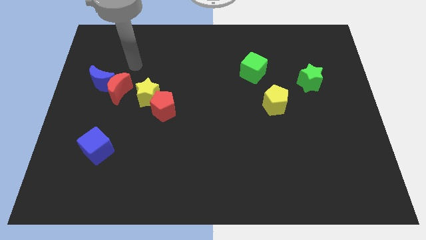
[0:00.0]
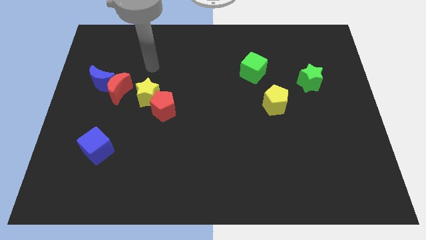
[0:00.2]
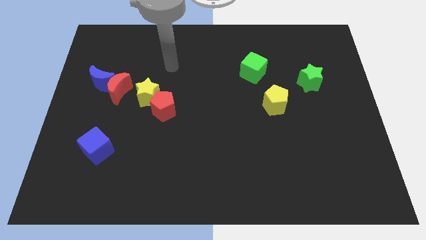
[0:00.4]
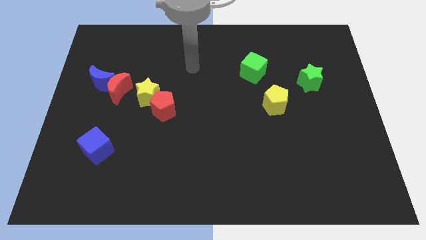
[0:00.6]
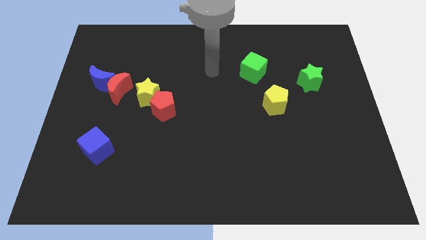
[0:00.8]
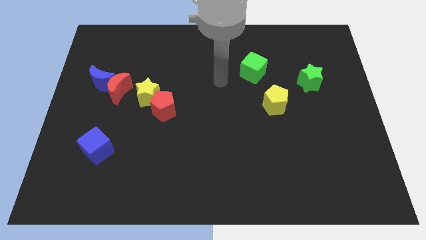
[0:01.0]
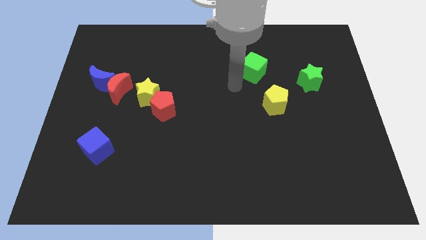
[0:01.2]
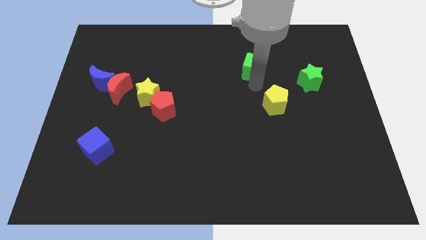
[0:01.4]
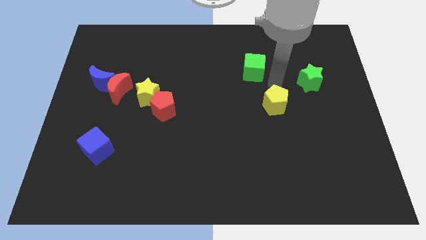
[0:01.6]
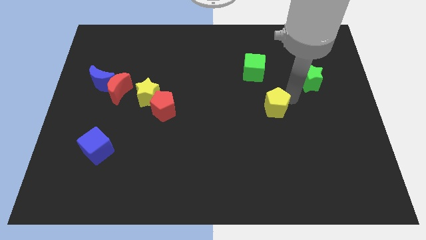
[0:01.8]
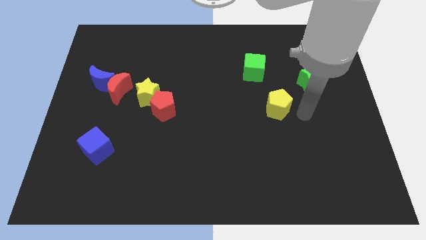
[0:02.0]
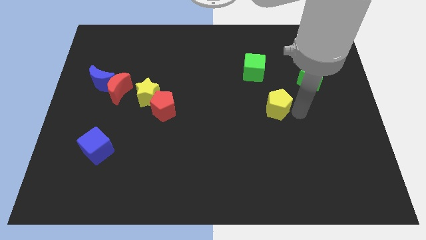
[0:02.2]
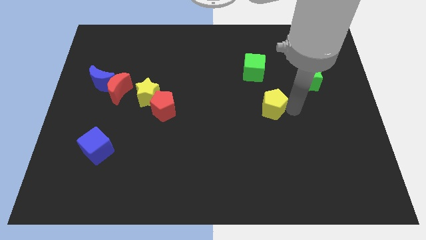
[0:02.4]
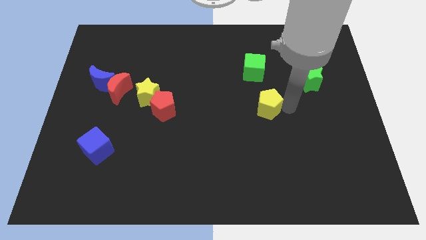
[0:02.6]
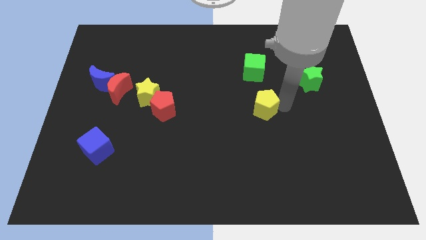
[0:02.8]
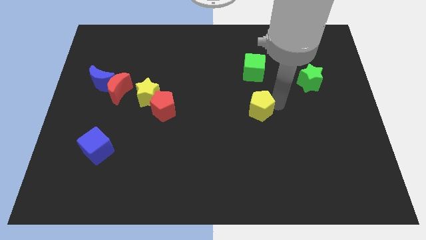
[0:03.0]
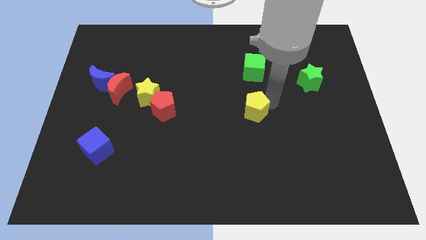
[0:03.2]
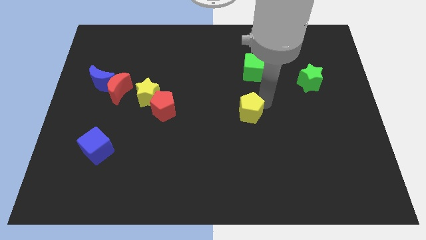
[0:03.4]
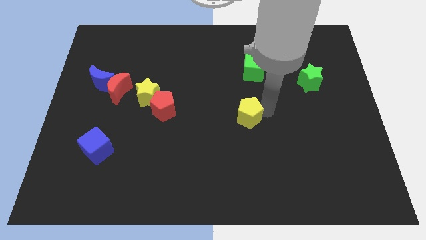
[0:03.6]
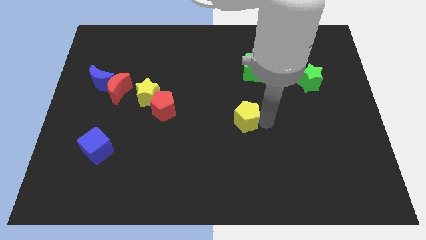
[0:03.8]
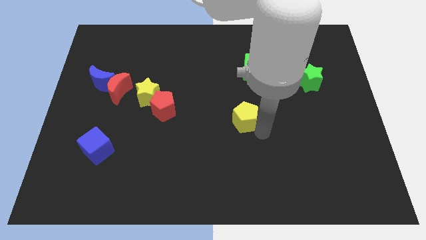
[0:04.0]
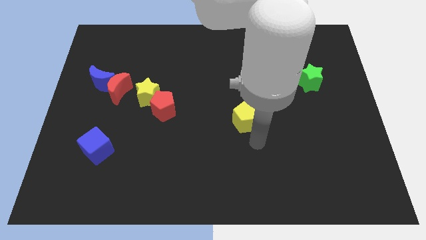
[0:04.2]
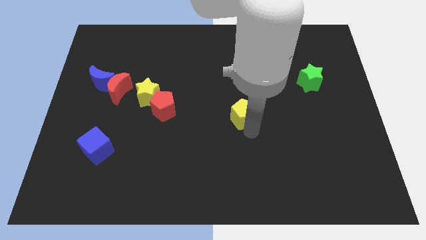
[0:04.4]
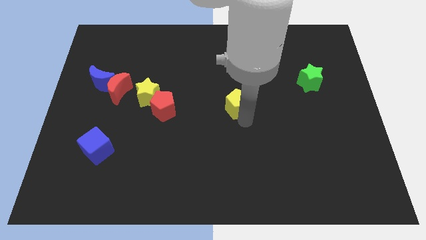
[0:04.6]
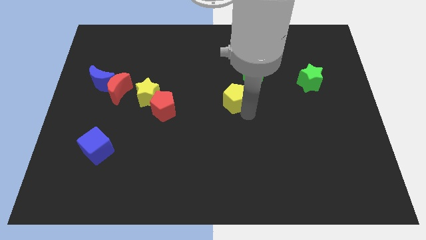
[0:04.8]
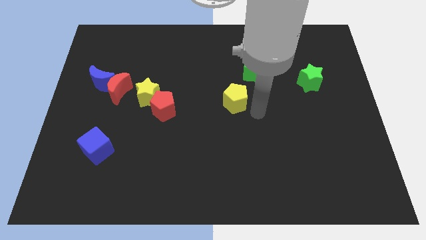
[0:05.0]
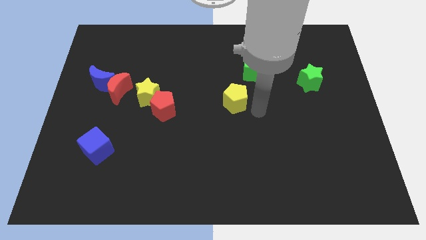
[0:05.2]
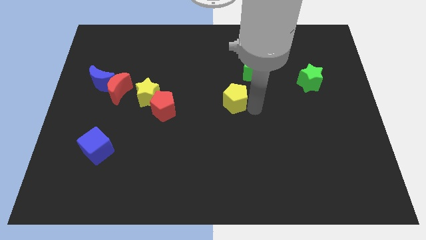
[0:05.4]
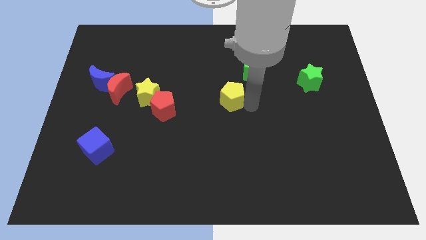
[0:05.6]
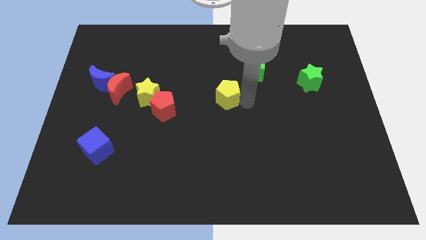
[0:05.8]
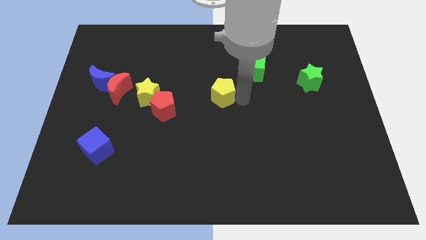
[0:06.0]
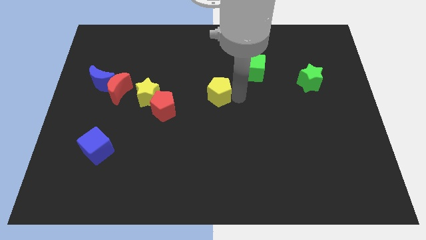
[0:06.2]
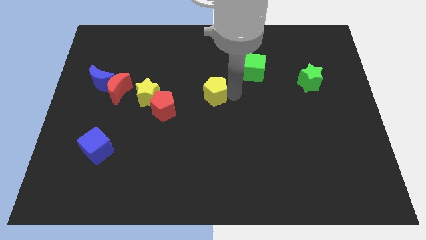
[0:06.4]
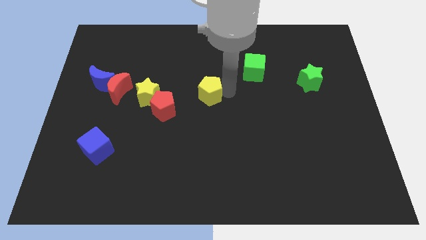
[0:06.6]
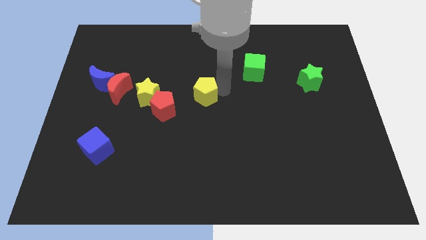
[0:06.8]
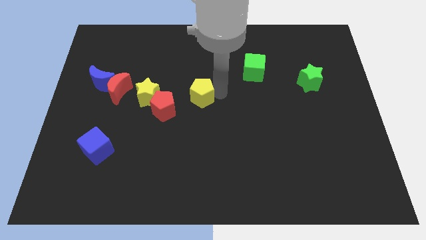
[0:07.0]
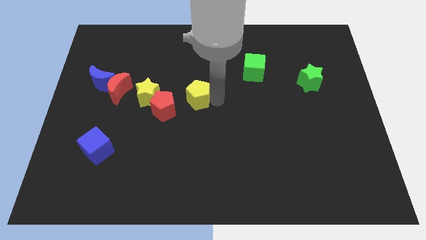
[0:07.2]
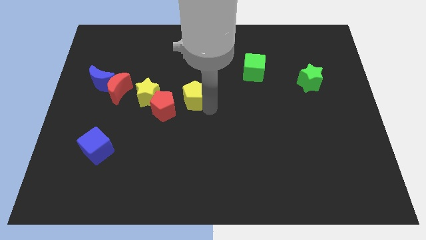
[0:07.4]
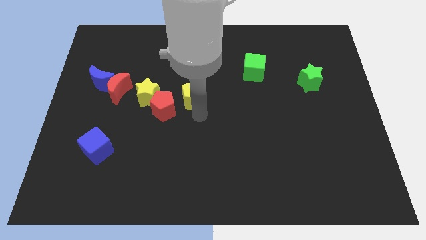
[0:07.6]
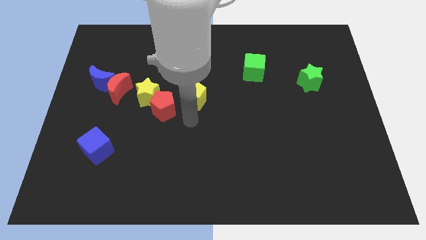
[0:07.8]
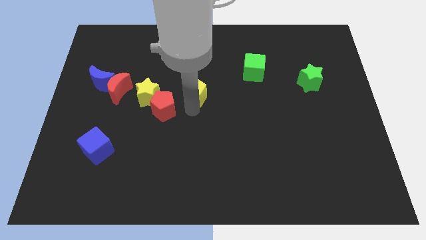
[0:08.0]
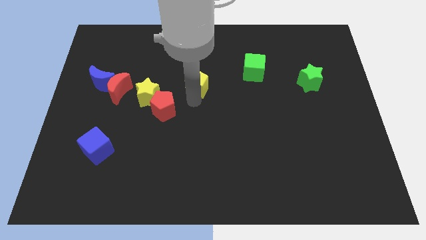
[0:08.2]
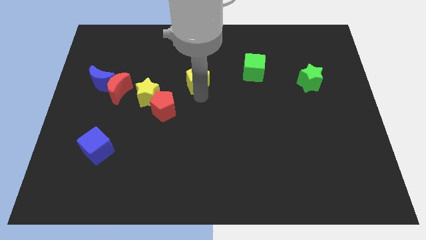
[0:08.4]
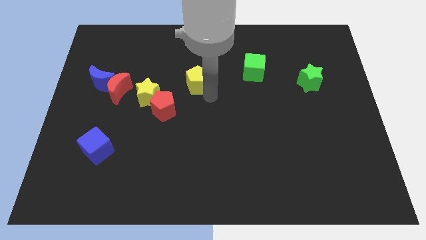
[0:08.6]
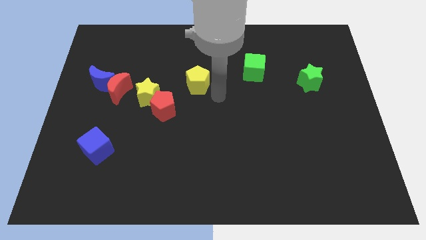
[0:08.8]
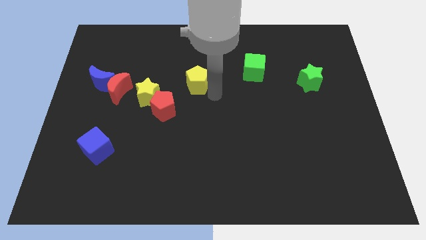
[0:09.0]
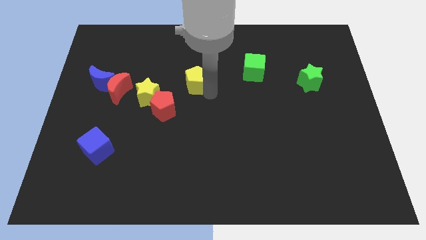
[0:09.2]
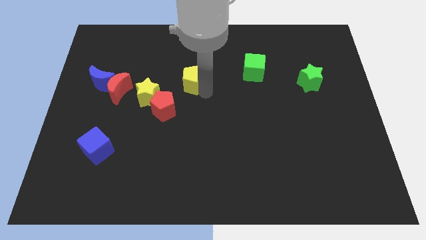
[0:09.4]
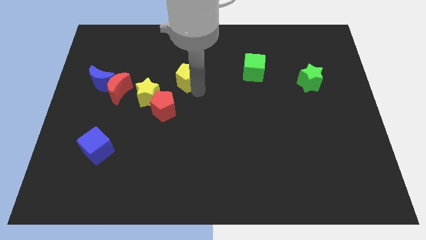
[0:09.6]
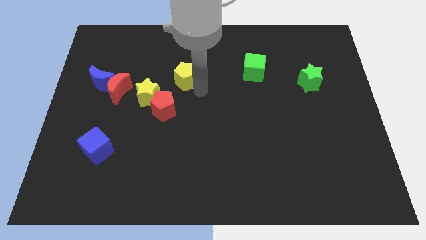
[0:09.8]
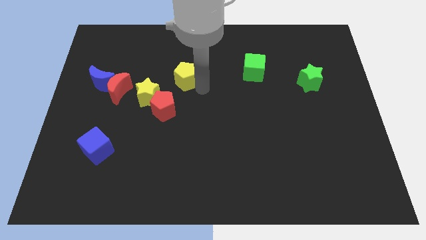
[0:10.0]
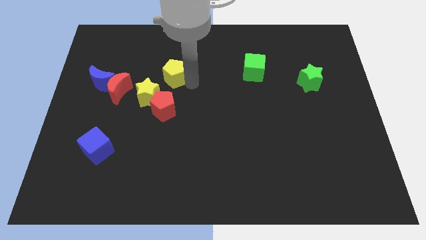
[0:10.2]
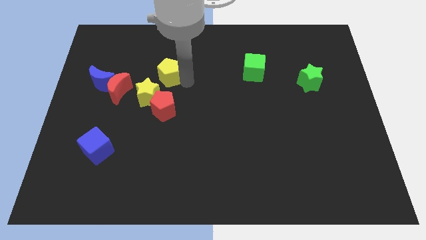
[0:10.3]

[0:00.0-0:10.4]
move the yellow pentagon above the yellow star

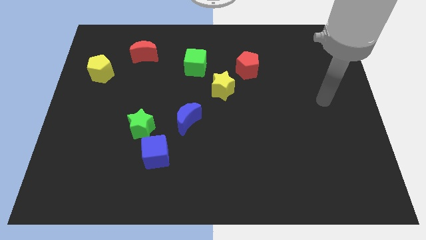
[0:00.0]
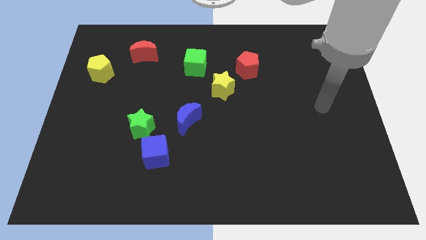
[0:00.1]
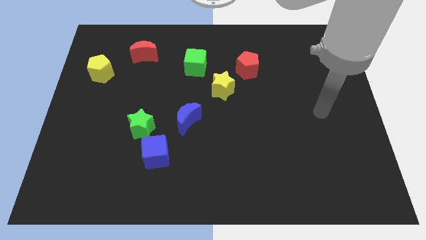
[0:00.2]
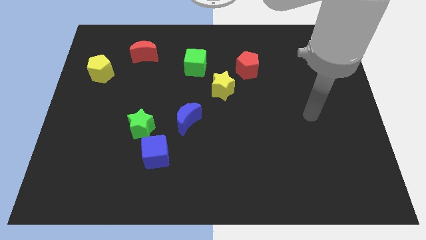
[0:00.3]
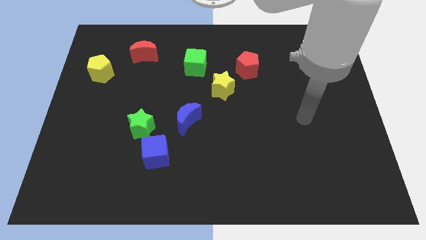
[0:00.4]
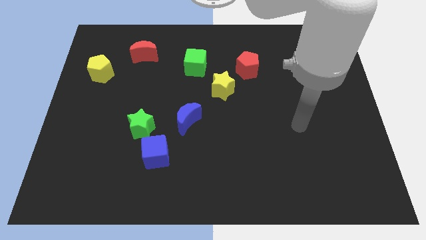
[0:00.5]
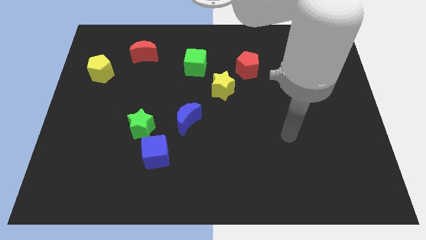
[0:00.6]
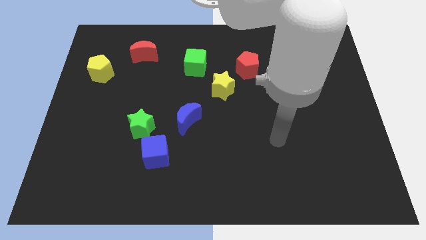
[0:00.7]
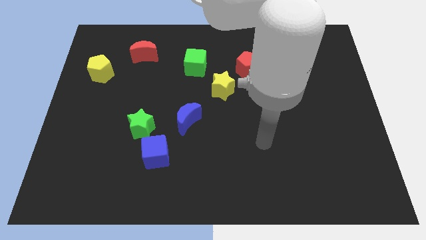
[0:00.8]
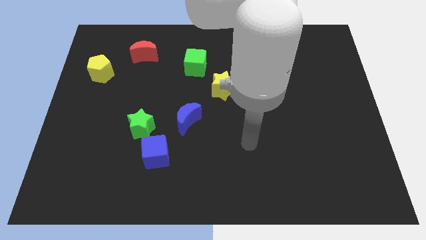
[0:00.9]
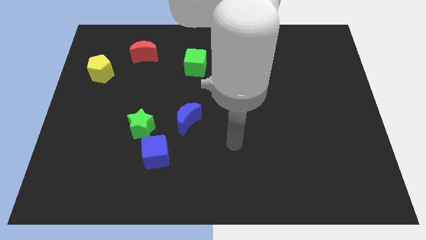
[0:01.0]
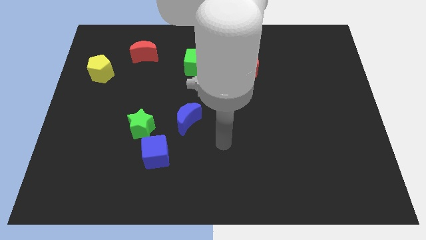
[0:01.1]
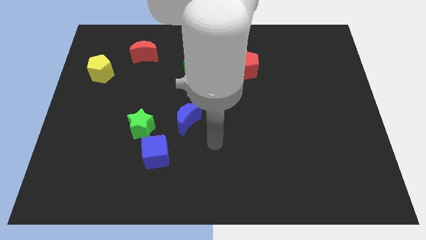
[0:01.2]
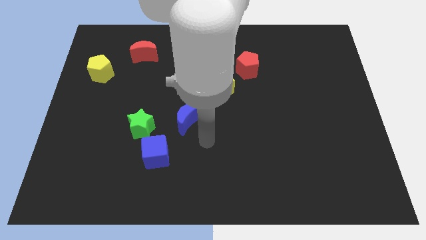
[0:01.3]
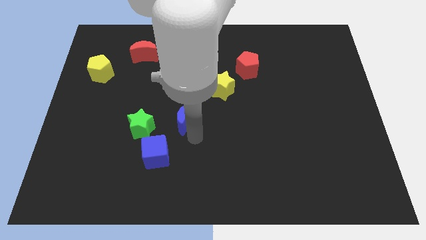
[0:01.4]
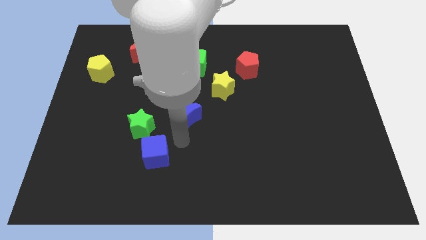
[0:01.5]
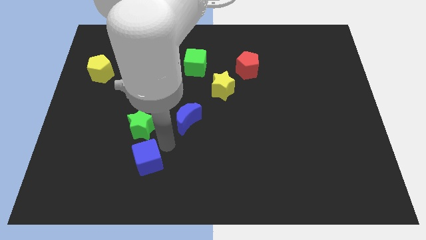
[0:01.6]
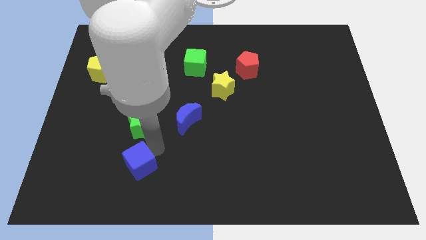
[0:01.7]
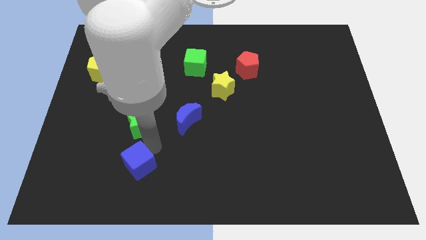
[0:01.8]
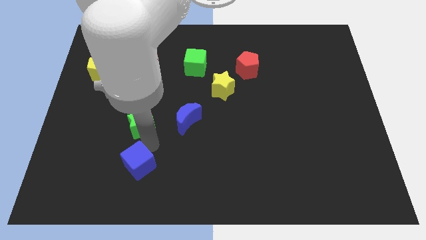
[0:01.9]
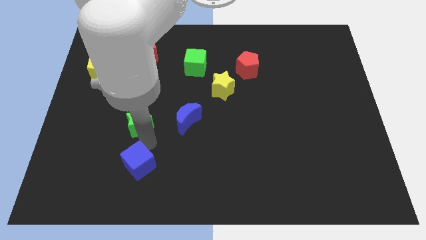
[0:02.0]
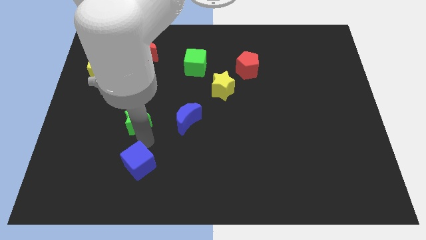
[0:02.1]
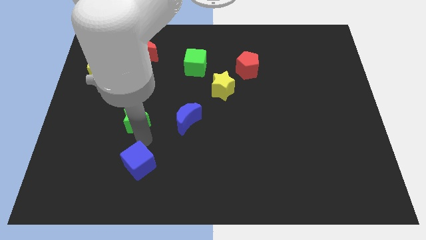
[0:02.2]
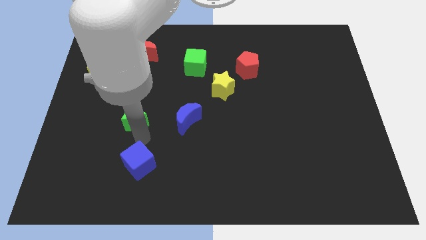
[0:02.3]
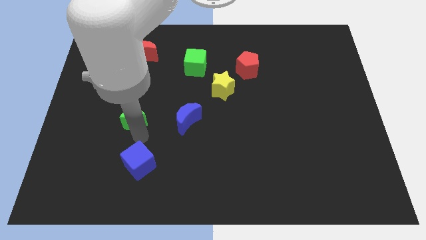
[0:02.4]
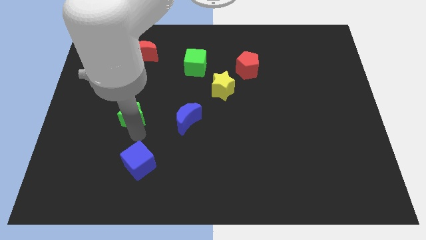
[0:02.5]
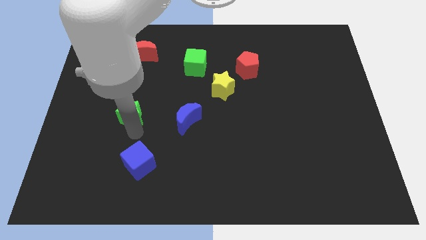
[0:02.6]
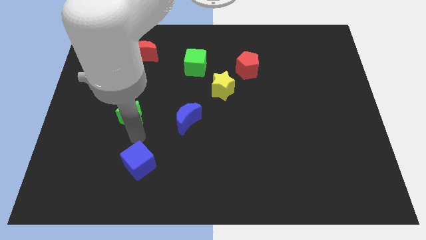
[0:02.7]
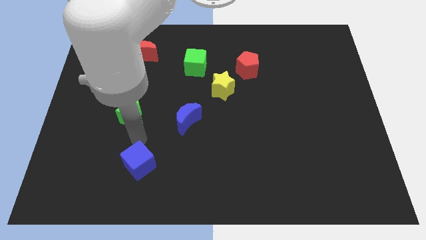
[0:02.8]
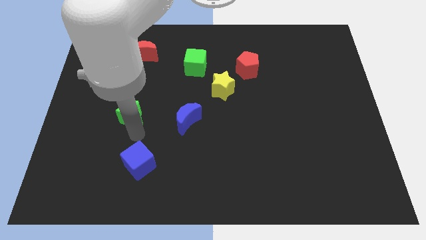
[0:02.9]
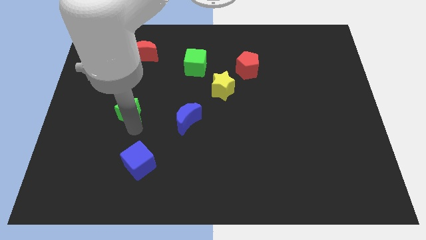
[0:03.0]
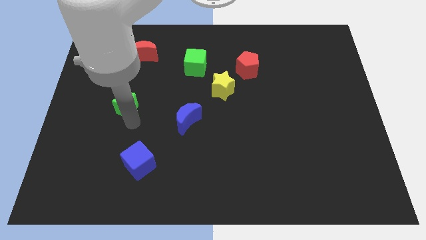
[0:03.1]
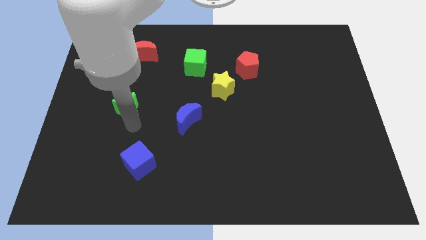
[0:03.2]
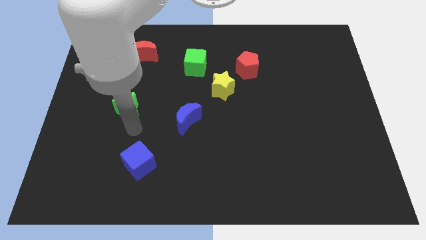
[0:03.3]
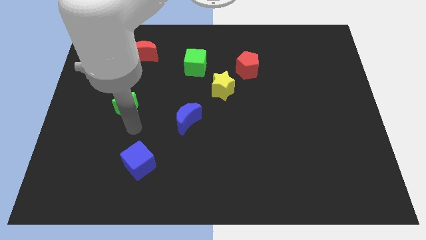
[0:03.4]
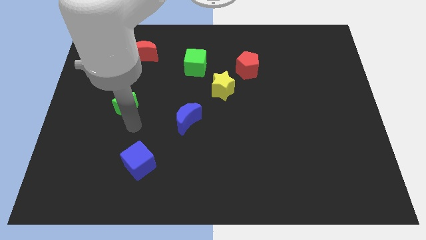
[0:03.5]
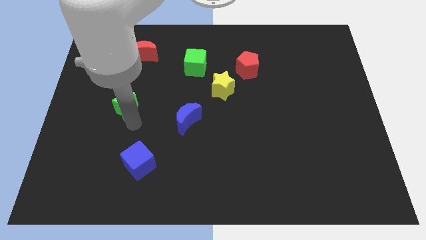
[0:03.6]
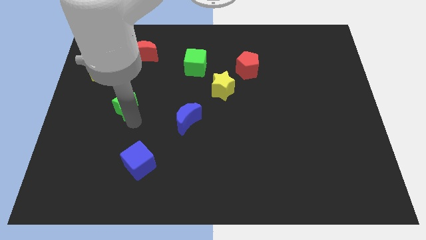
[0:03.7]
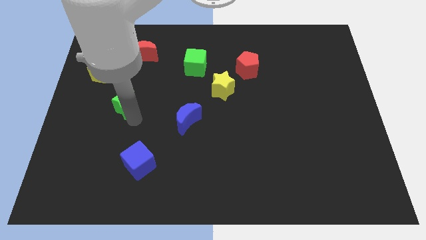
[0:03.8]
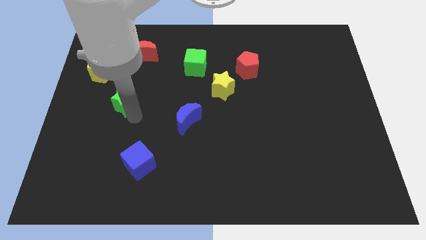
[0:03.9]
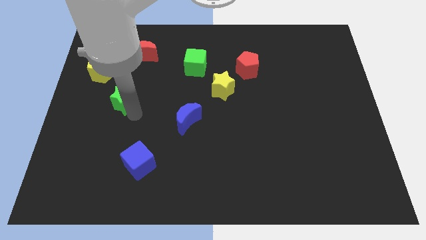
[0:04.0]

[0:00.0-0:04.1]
push the green star to the bottom right side of the yellow pentagon
